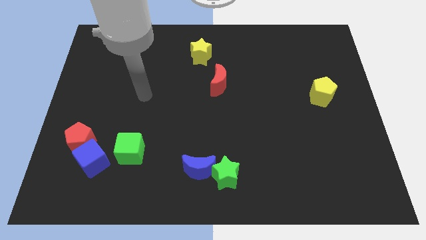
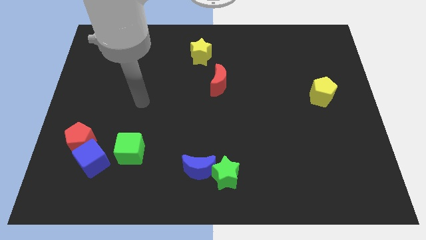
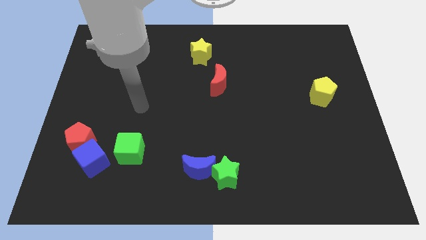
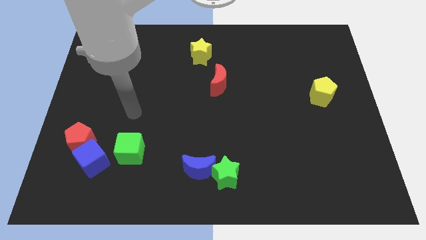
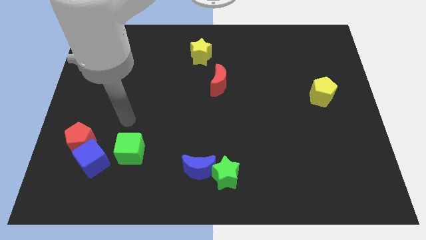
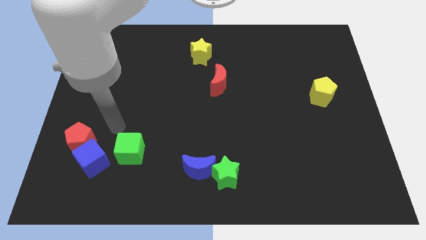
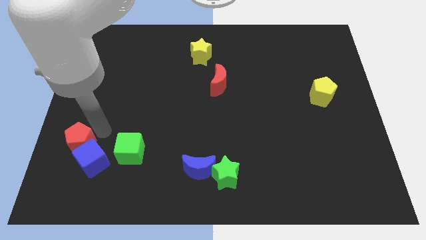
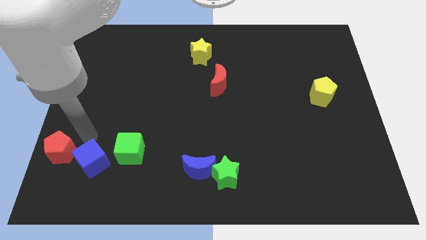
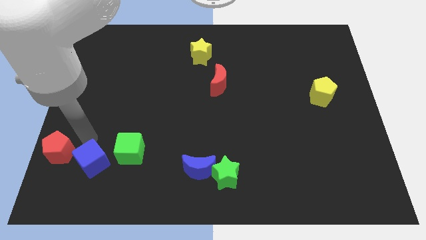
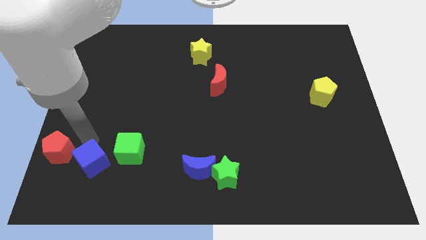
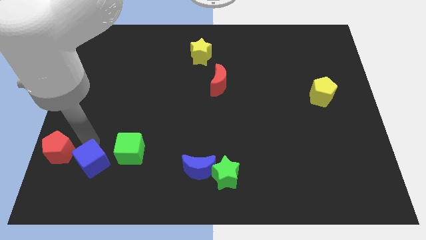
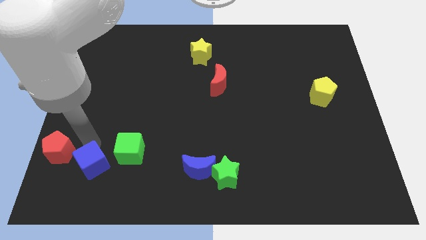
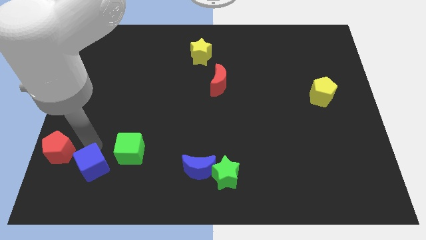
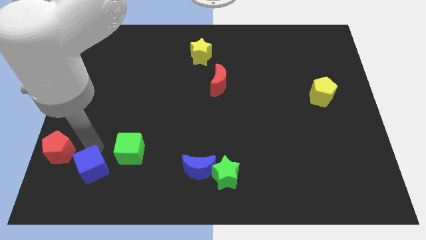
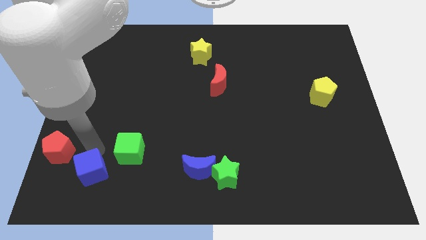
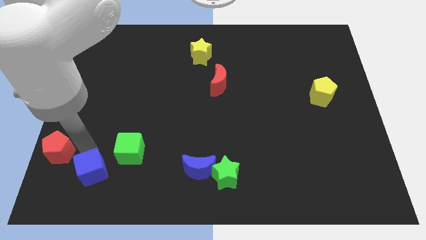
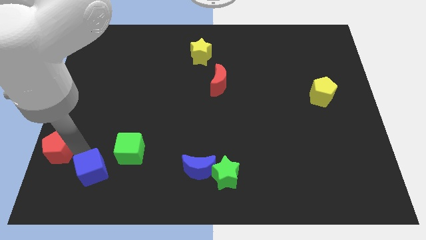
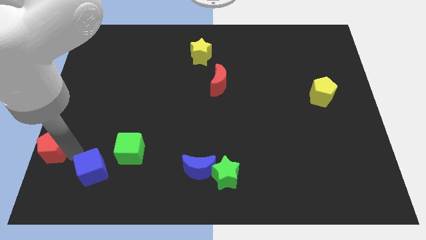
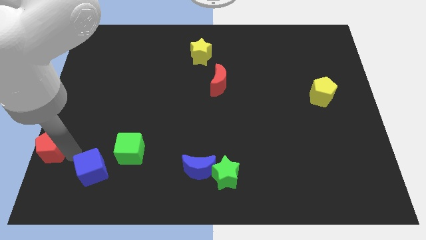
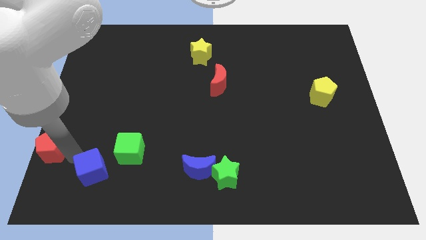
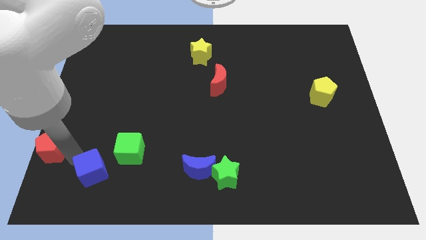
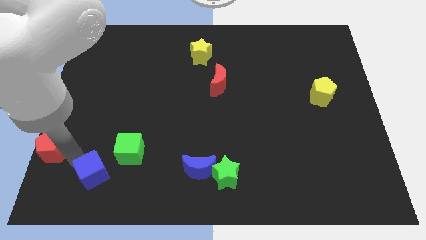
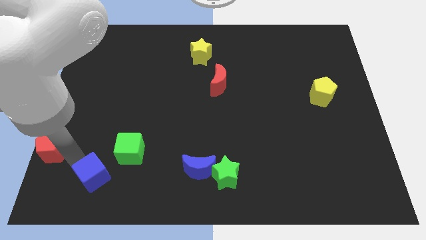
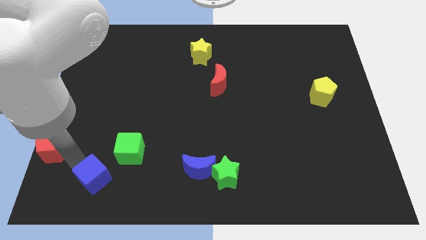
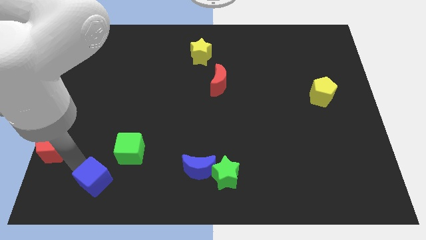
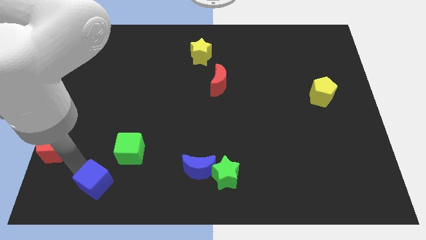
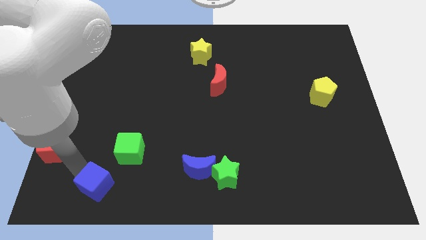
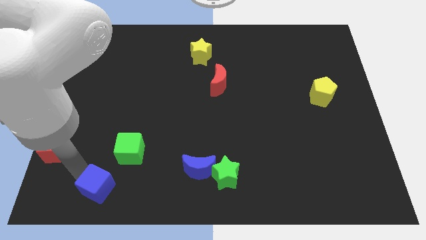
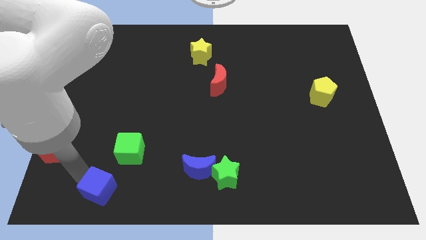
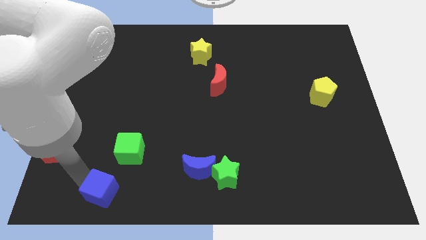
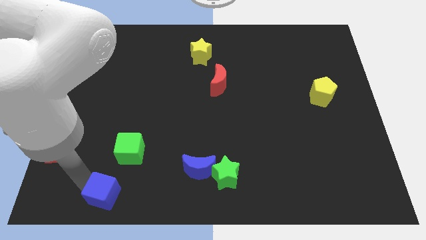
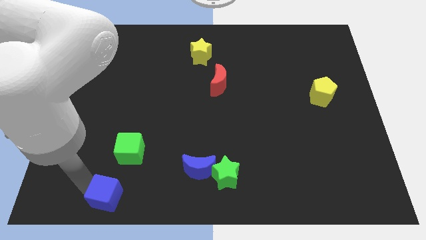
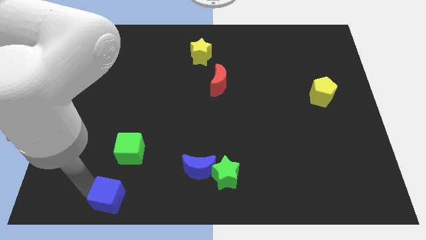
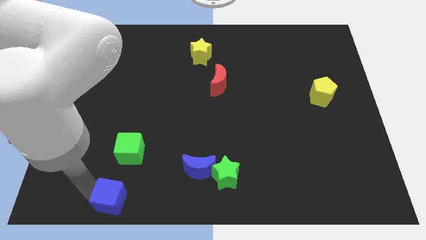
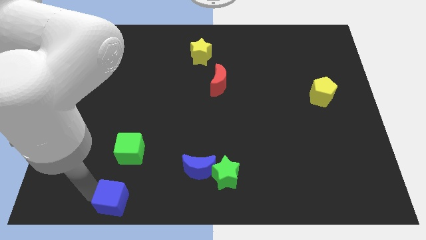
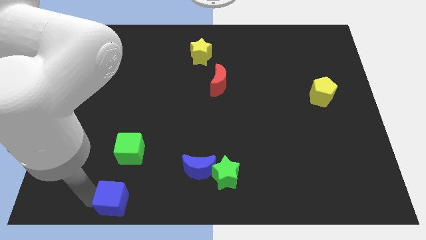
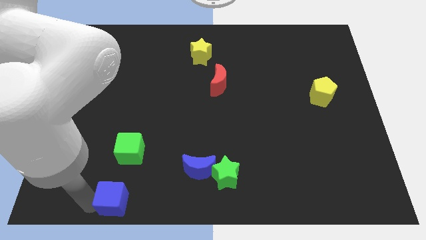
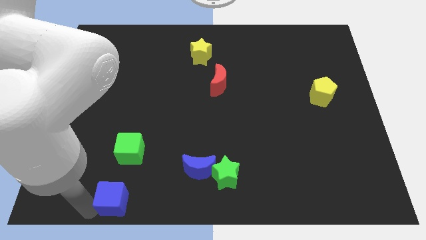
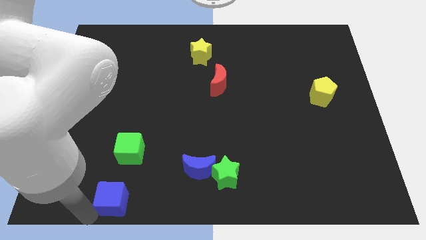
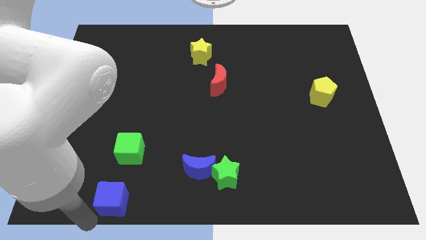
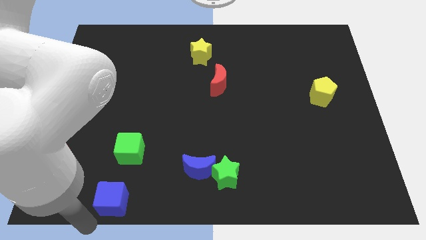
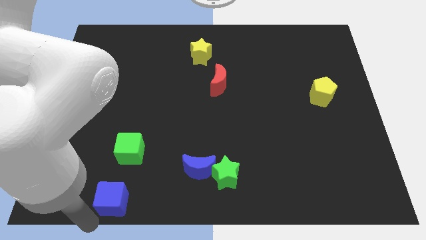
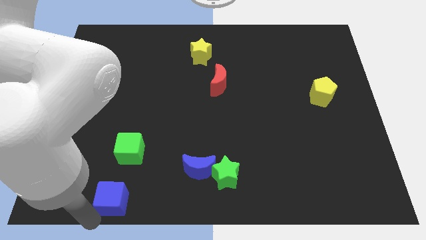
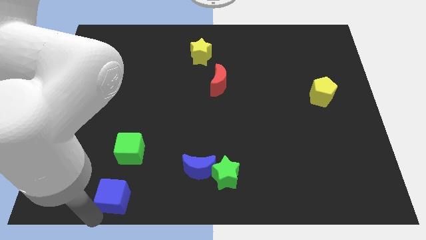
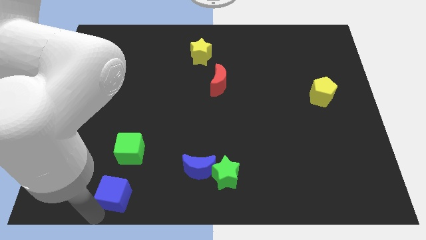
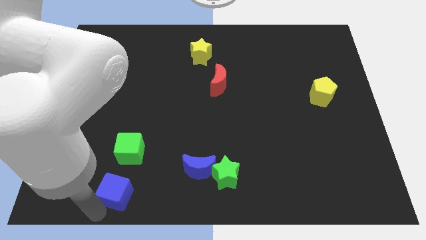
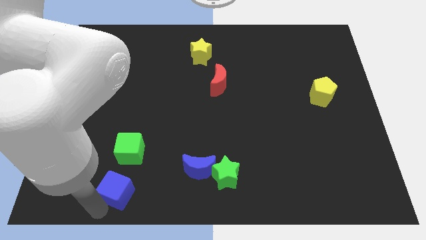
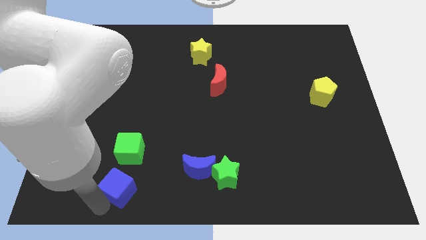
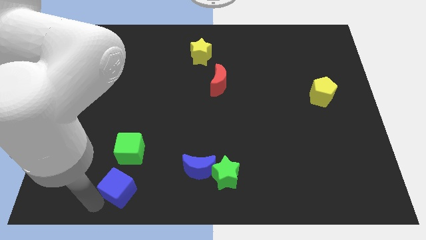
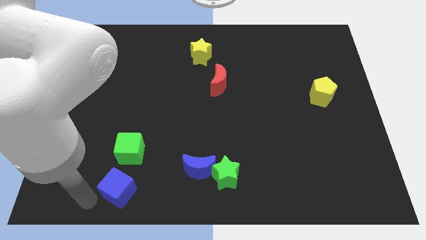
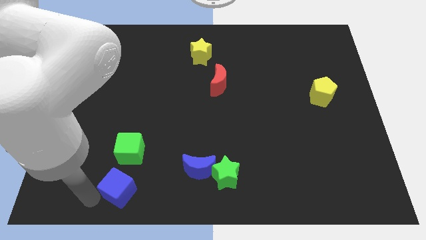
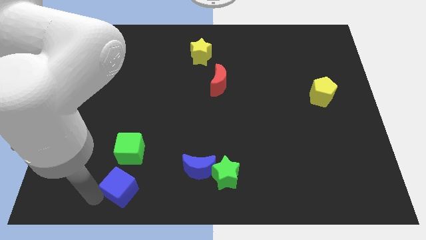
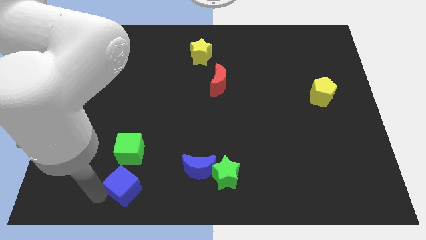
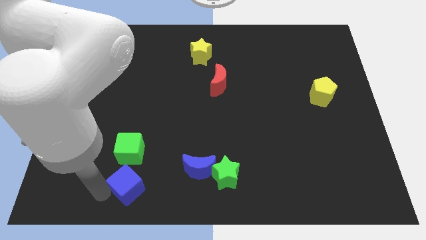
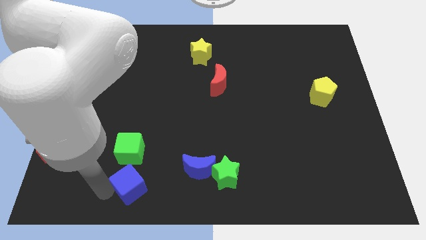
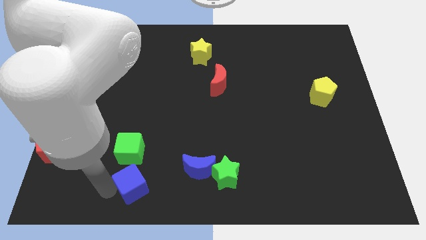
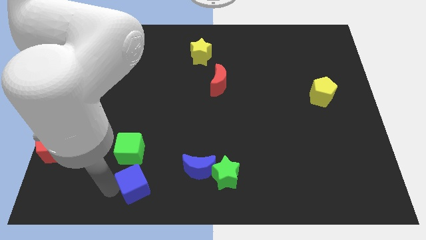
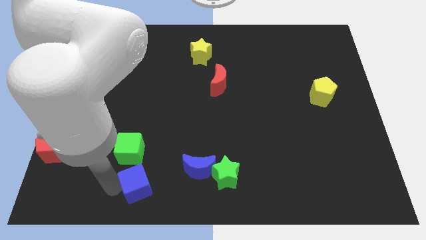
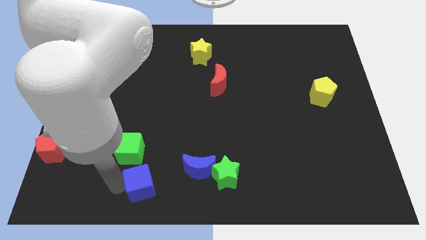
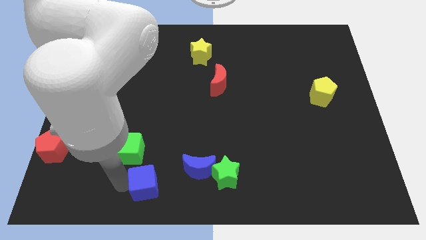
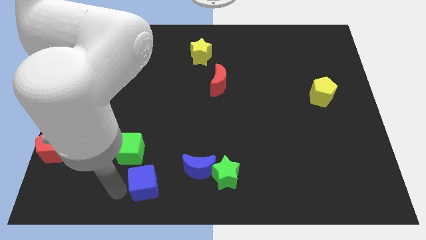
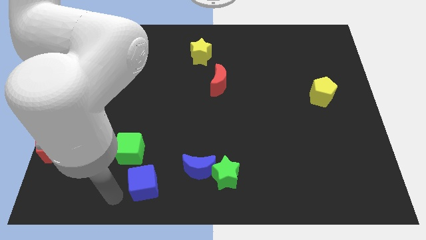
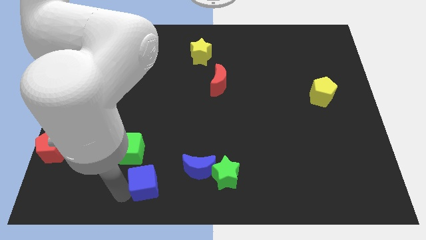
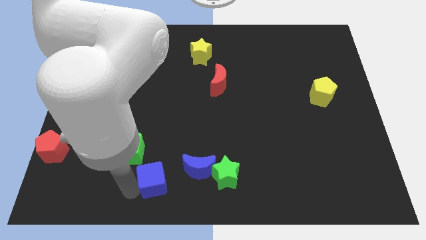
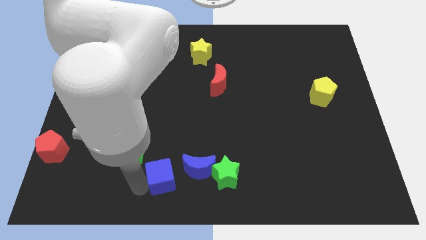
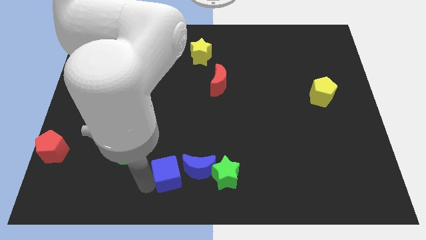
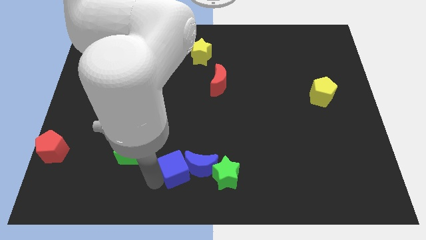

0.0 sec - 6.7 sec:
push the blue cube to the blue moon

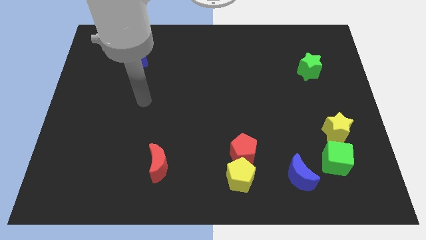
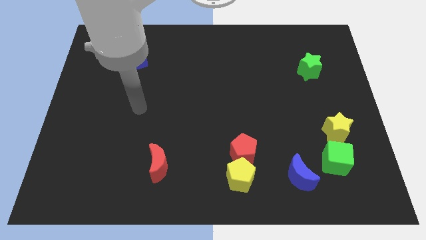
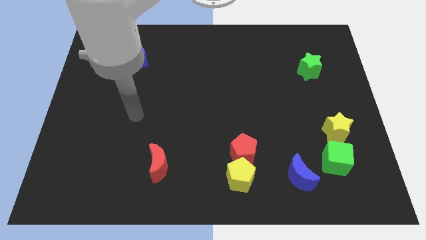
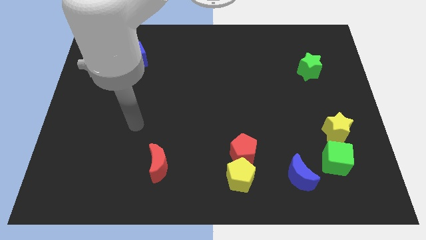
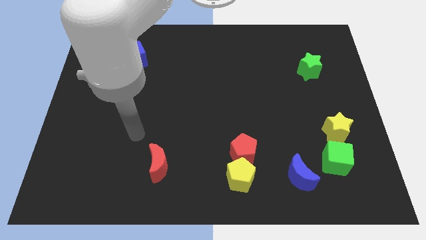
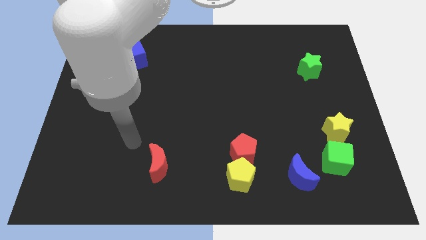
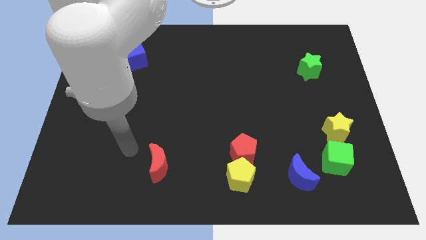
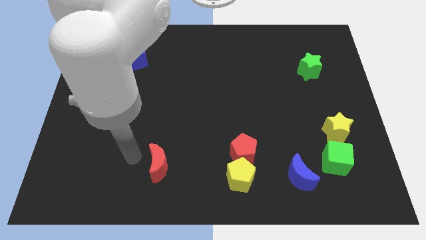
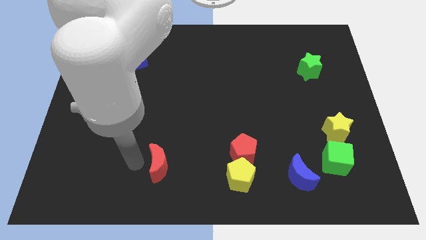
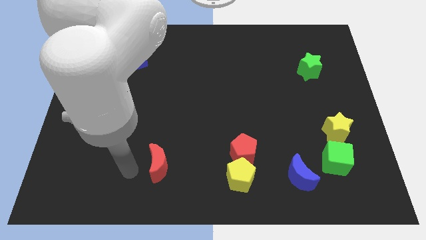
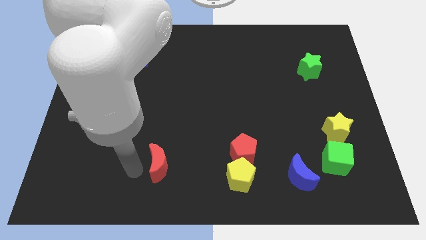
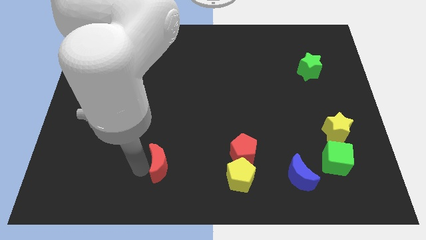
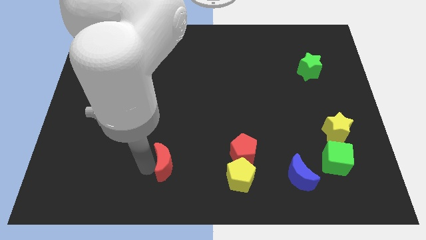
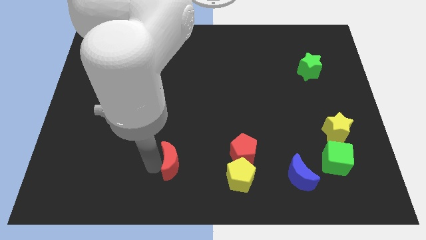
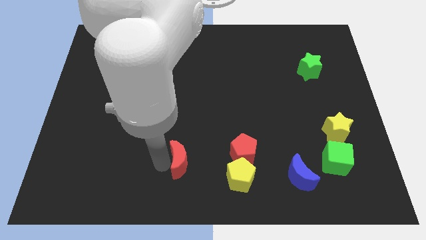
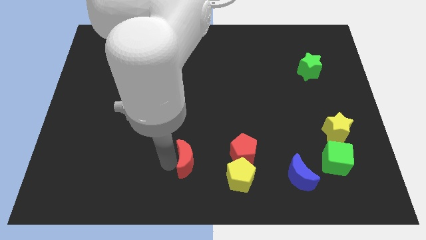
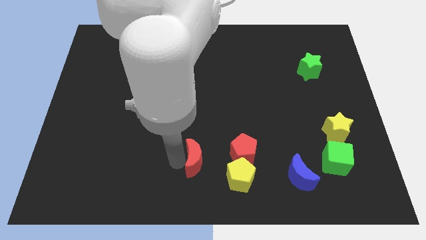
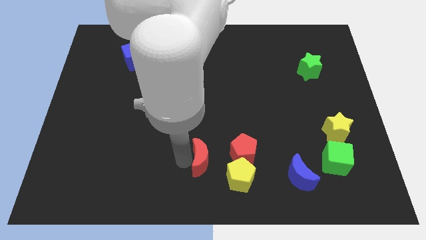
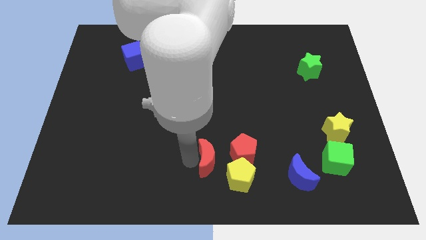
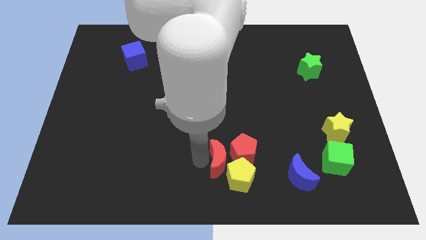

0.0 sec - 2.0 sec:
push the red moon to the red pentagon
